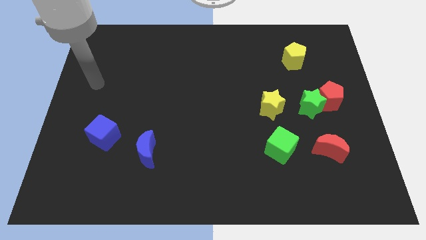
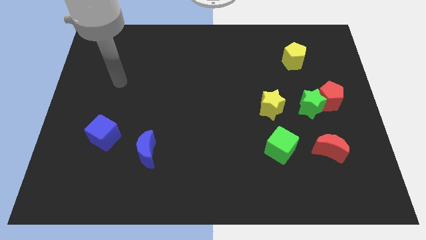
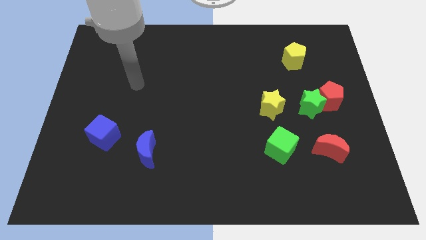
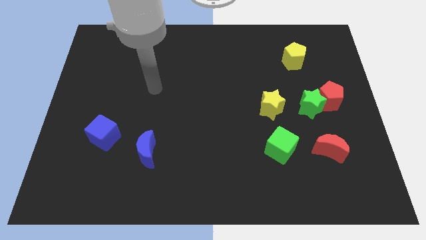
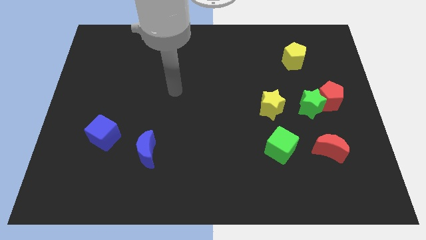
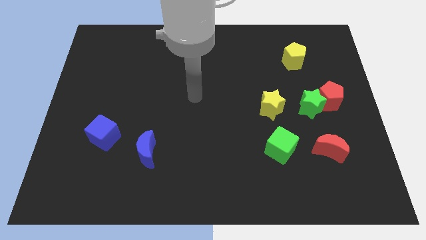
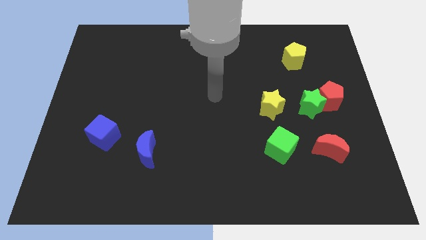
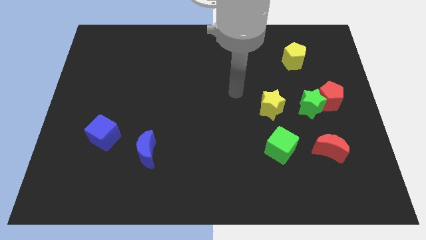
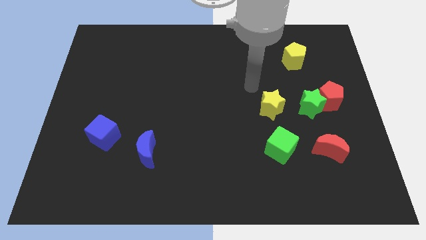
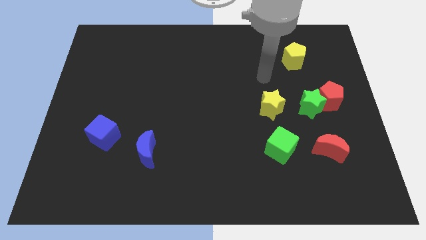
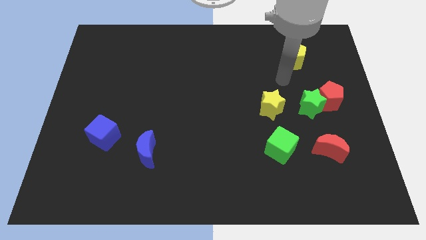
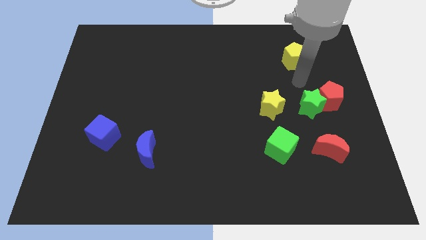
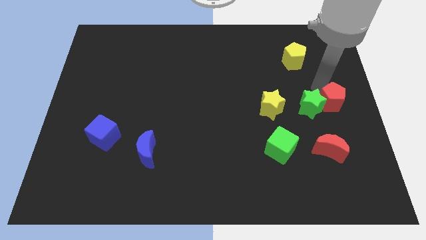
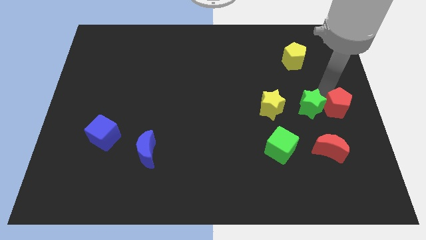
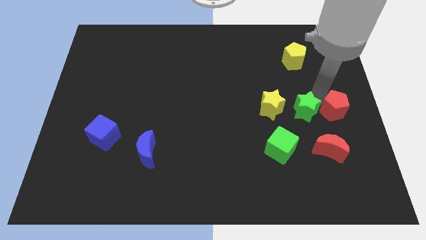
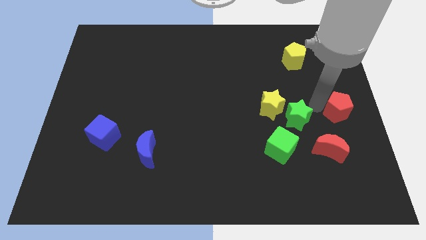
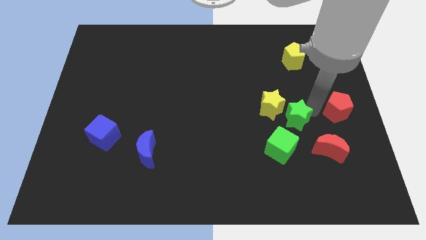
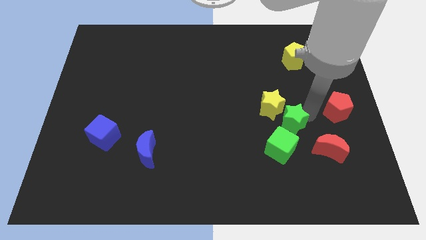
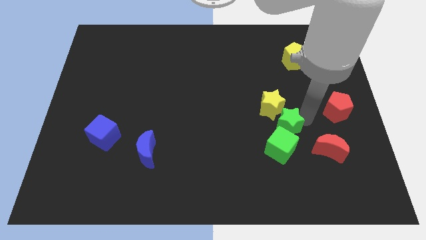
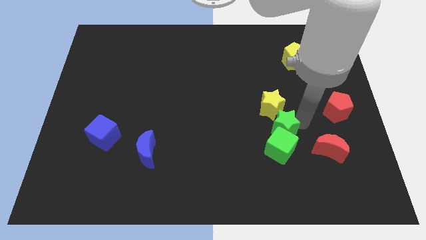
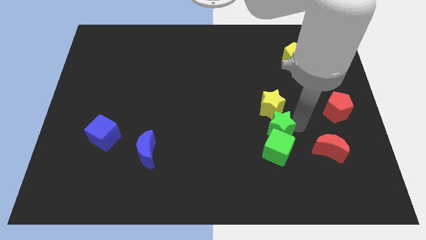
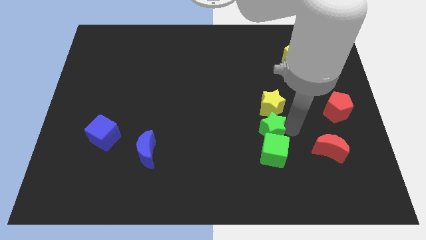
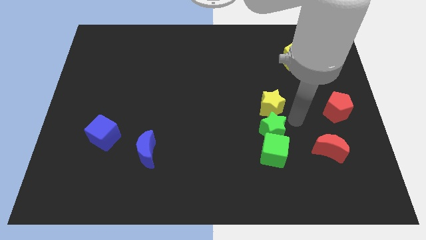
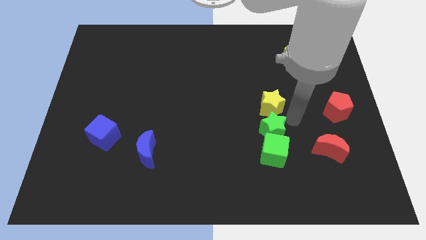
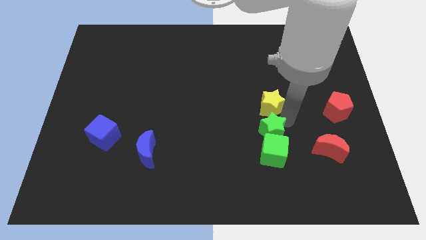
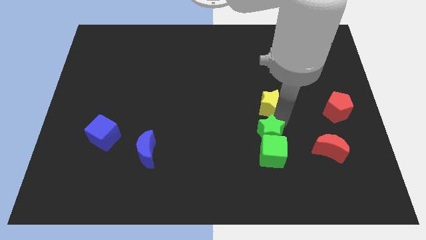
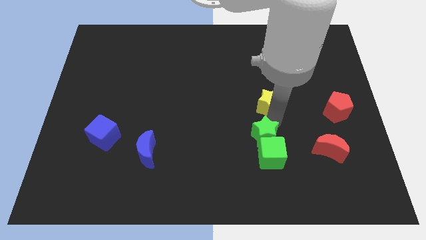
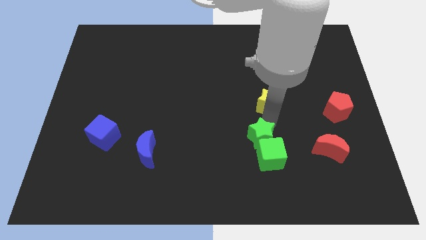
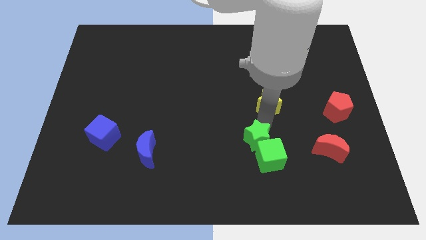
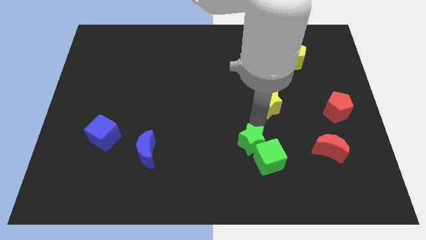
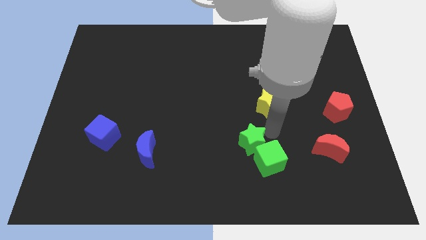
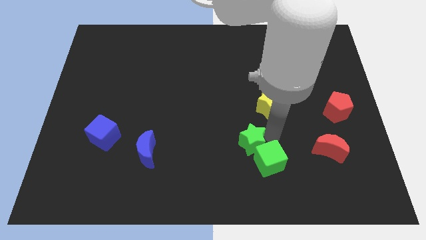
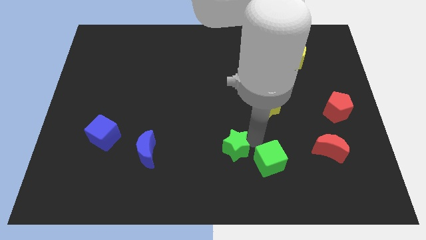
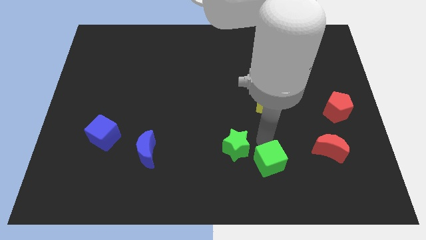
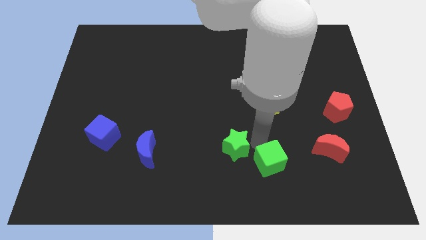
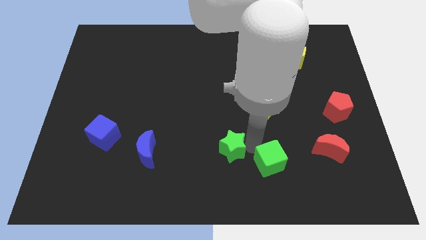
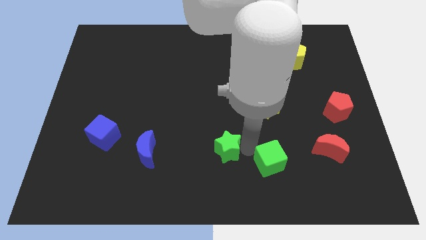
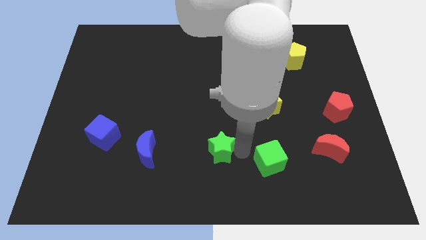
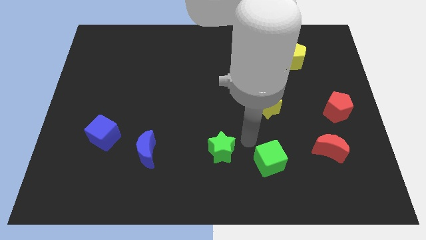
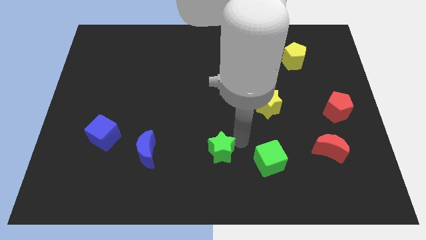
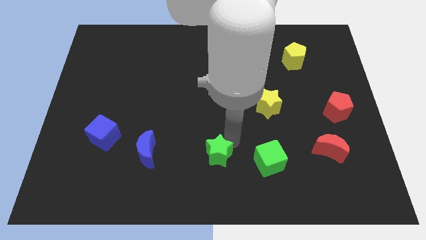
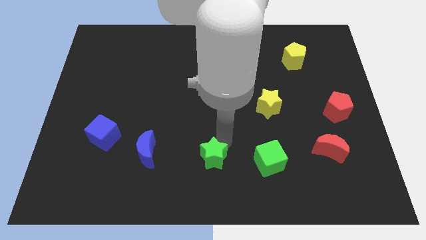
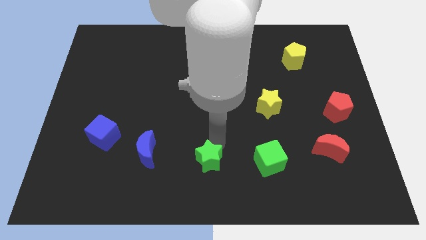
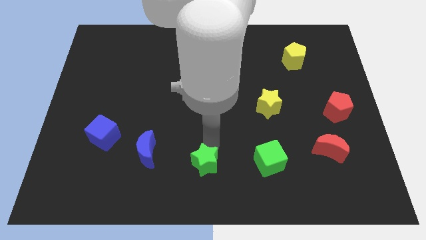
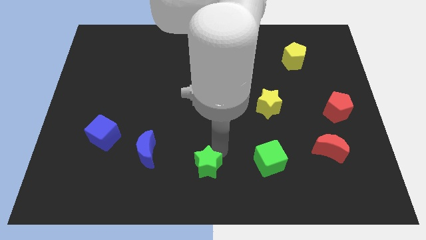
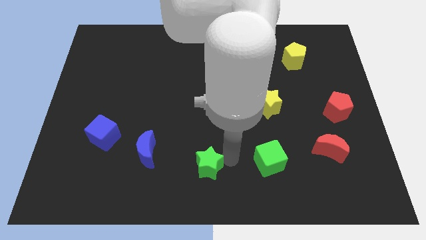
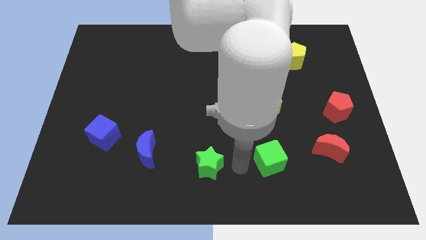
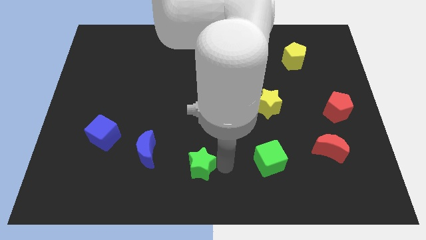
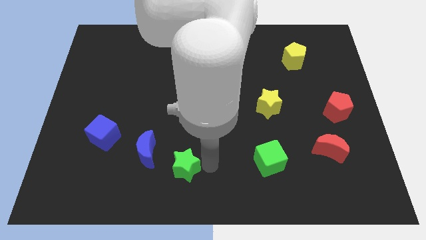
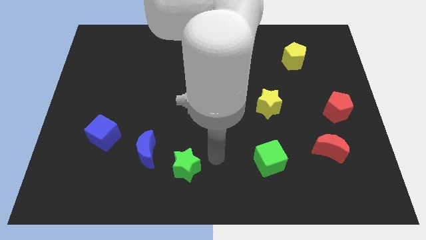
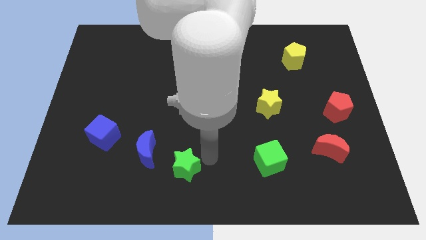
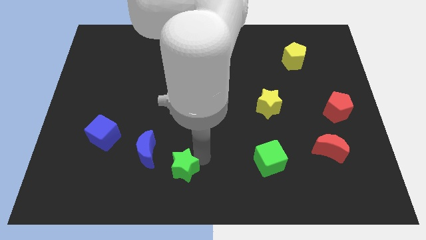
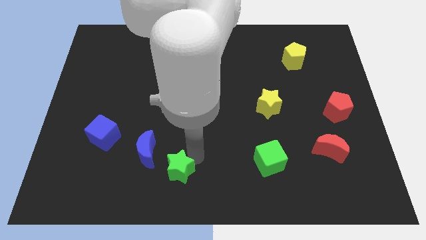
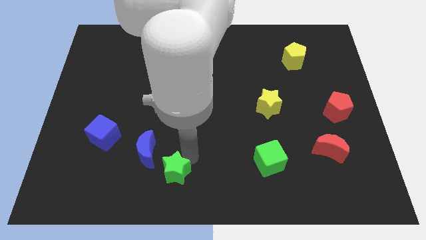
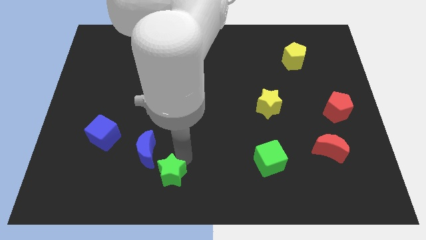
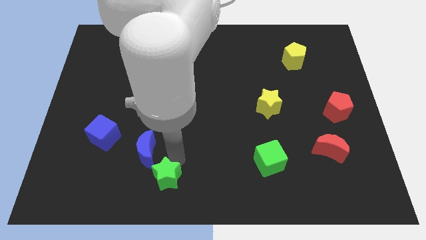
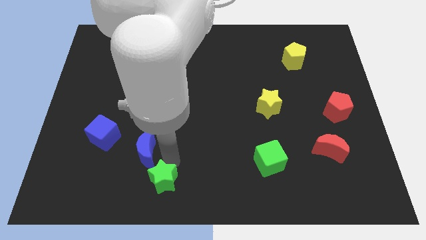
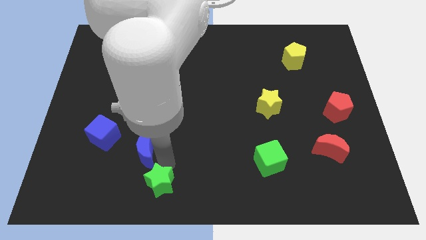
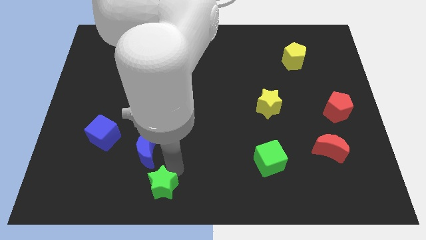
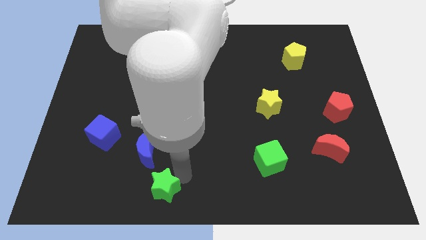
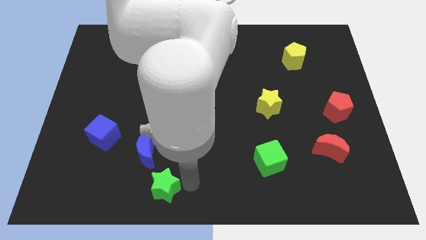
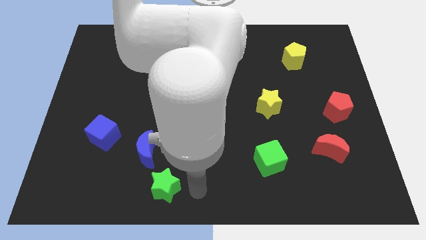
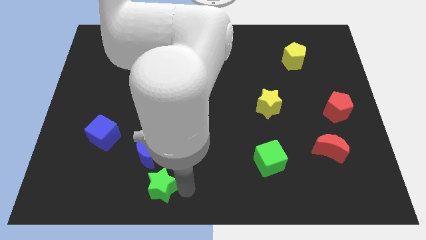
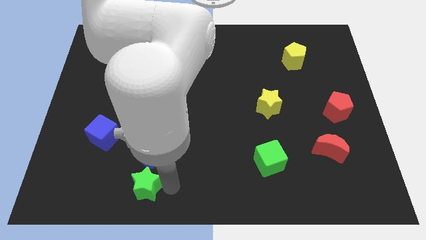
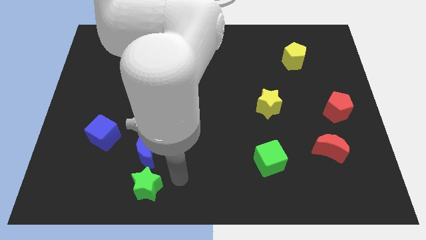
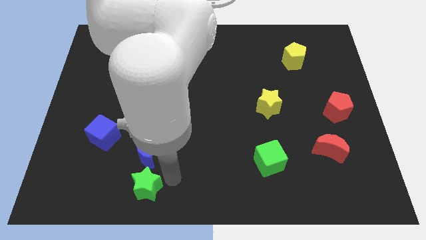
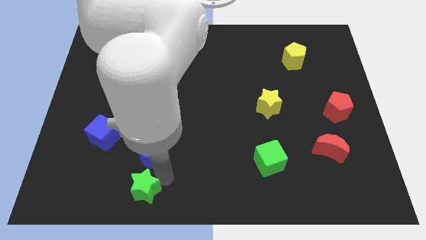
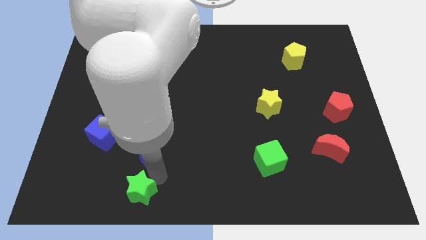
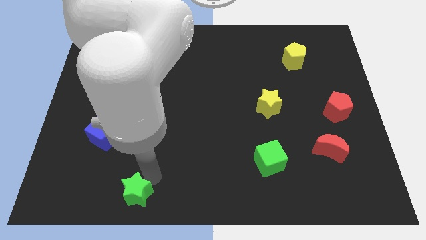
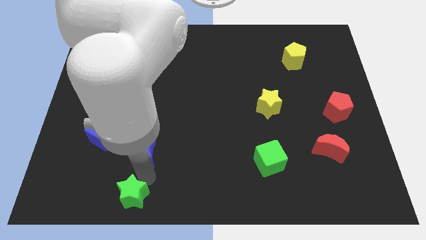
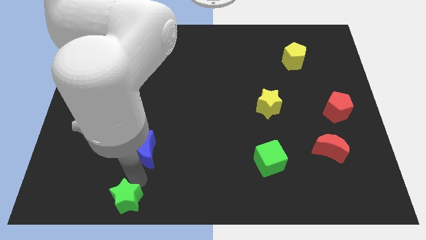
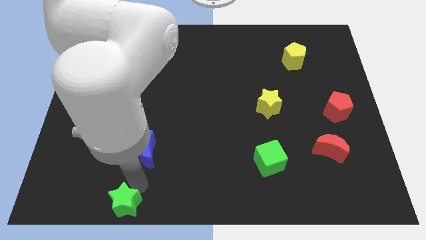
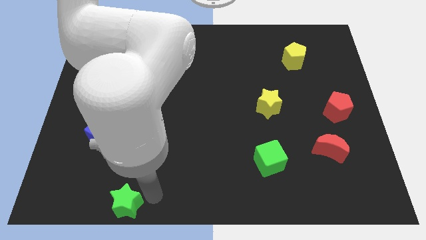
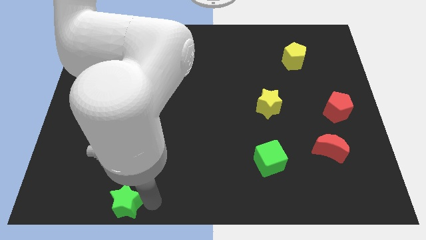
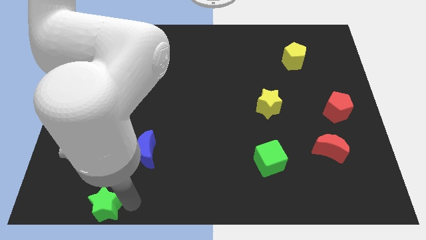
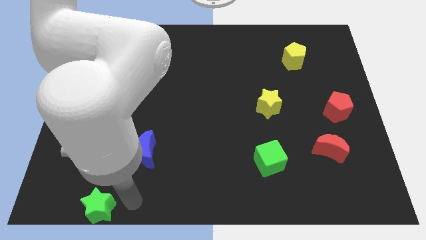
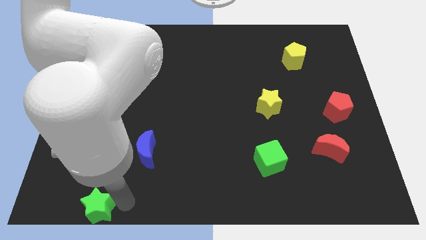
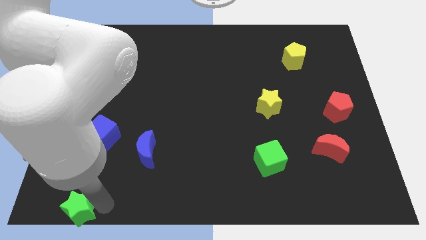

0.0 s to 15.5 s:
put the green star to the bottom left corner
